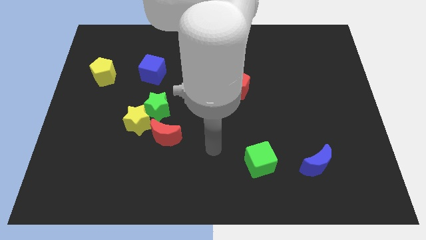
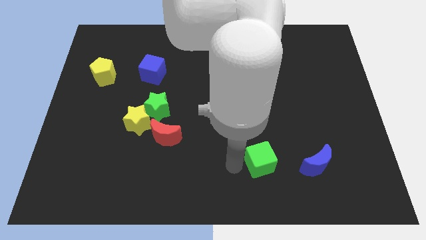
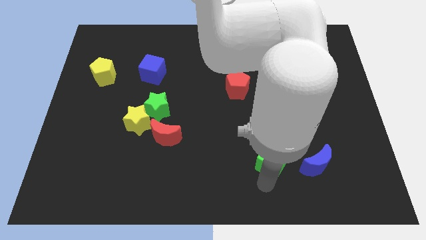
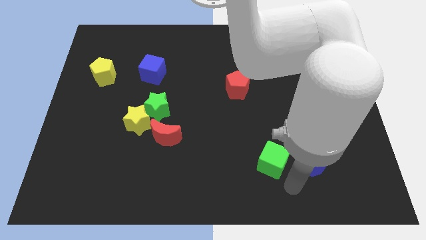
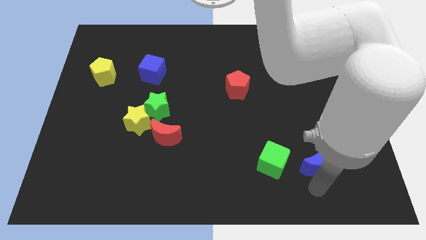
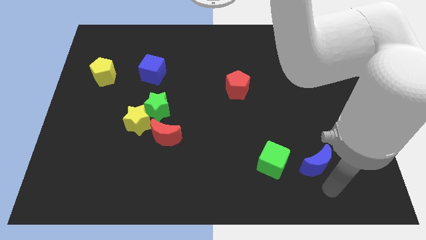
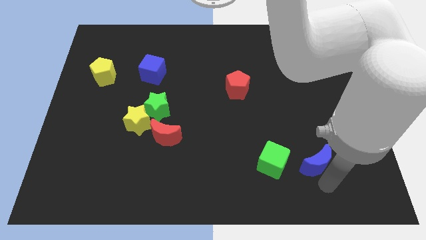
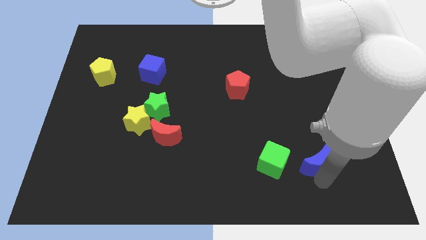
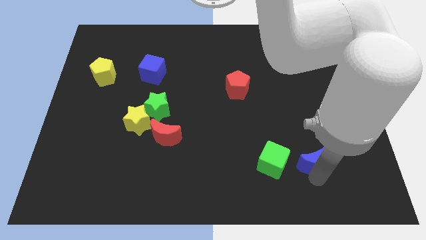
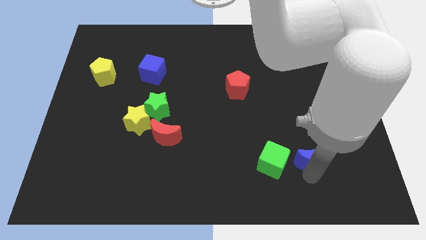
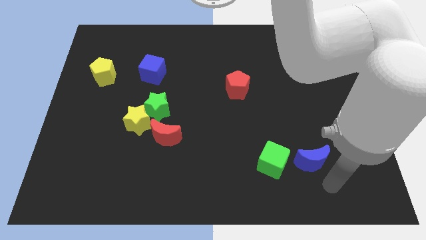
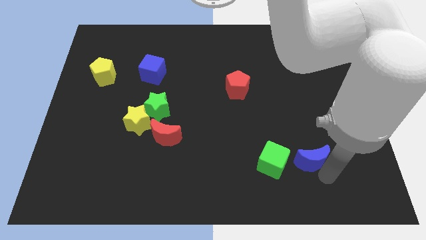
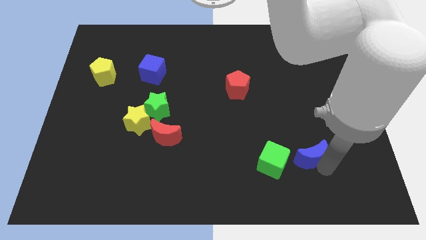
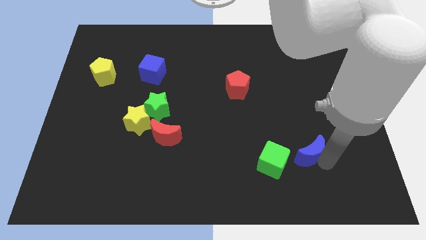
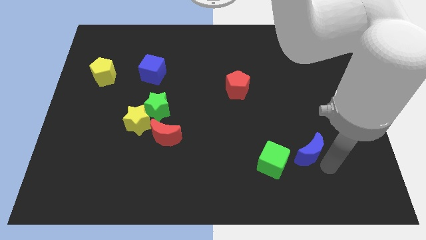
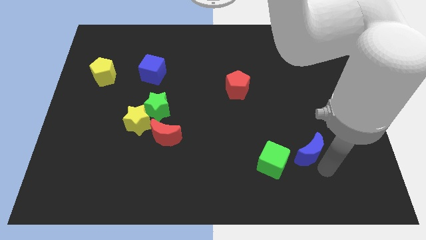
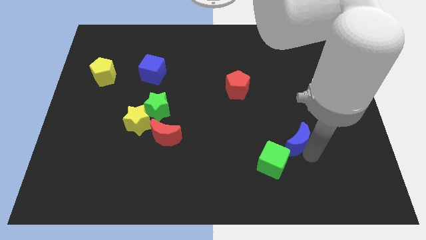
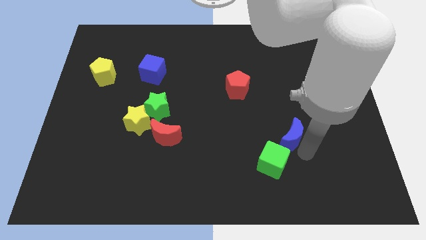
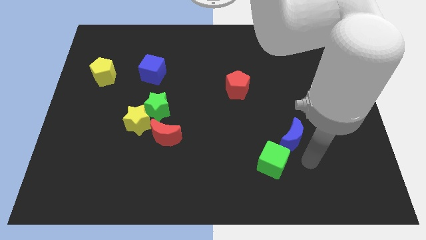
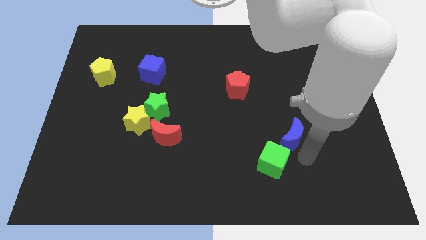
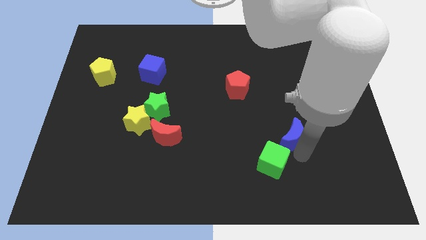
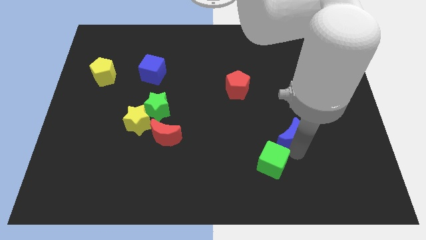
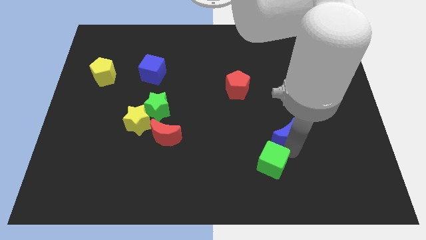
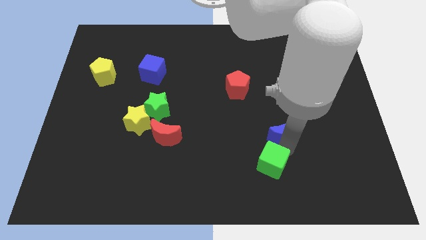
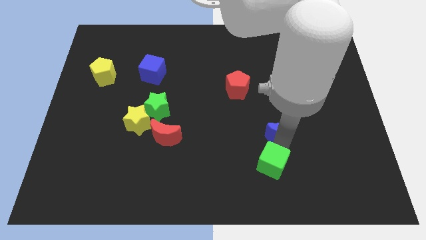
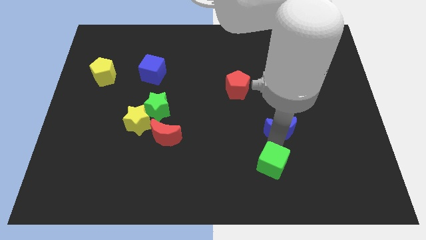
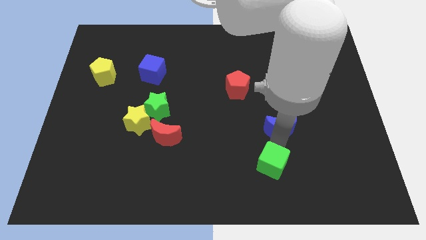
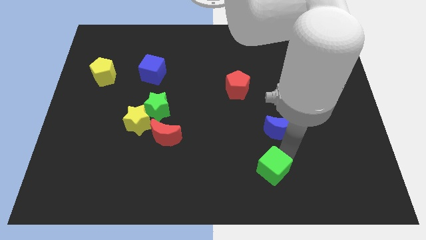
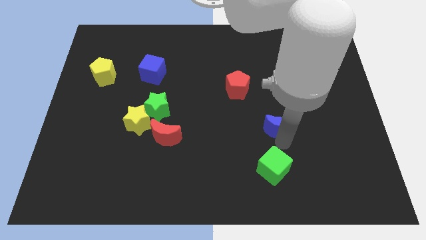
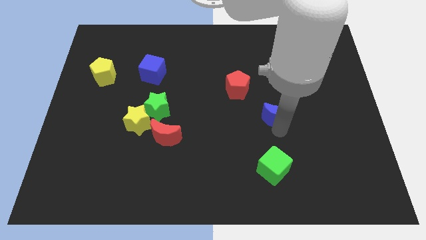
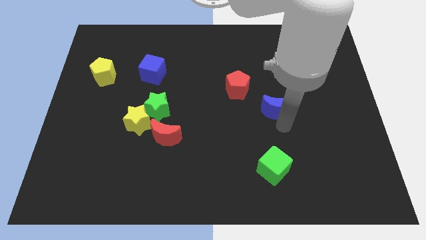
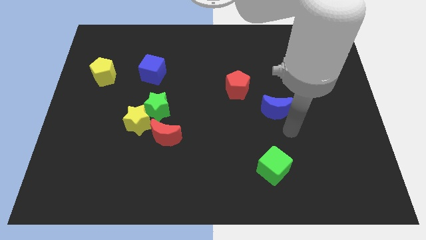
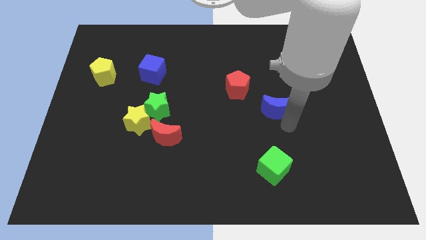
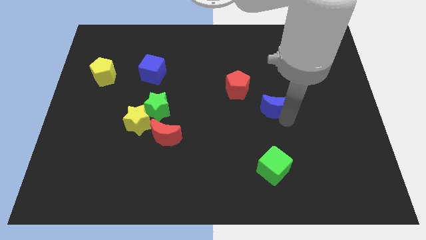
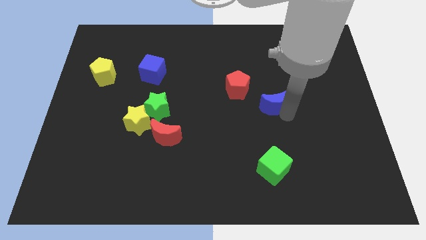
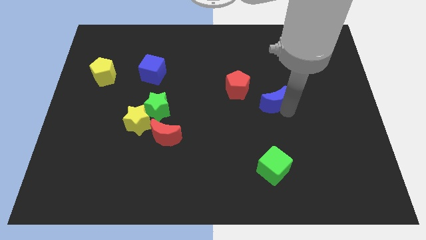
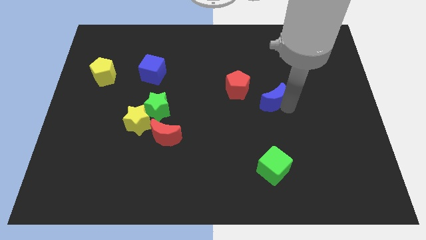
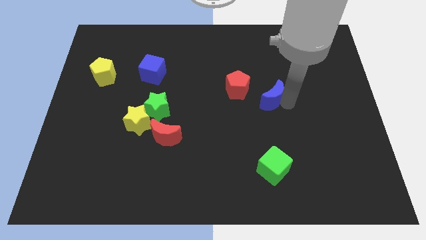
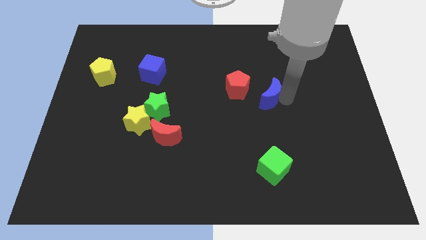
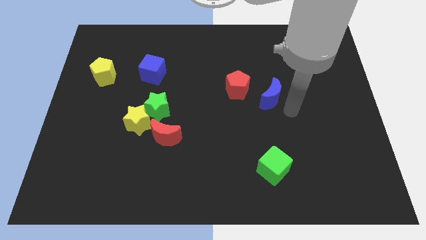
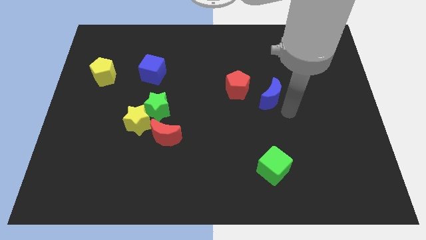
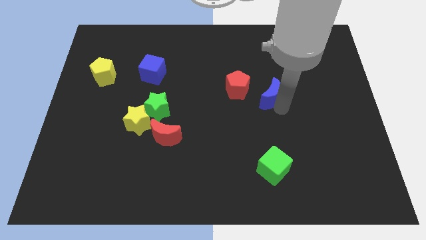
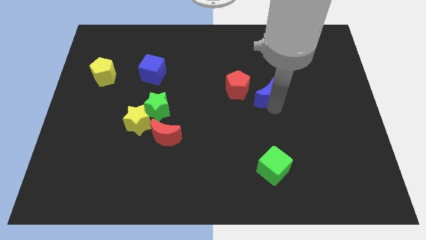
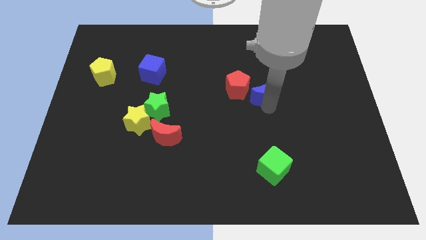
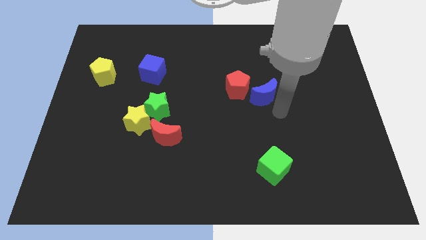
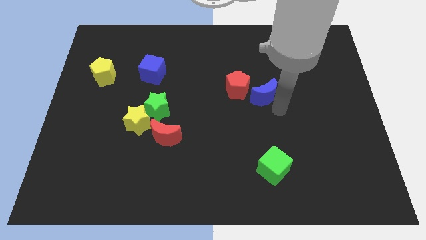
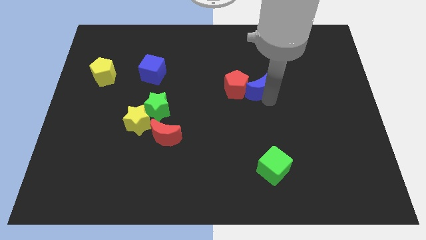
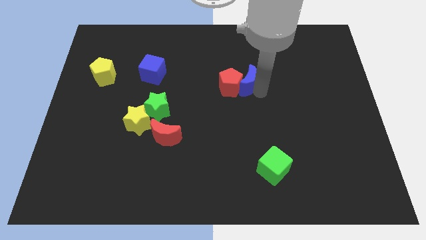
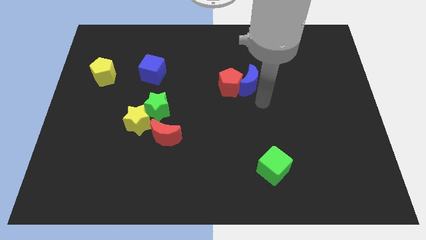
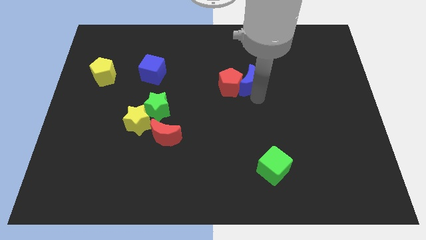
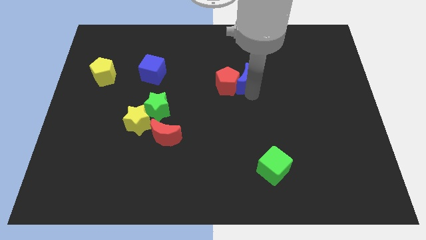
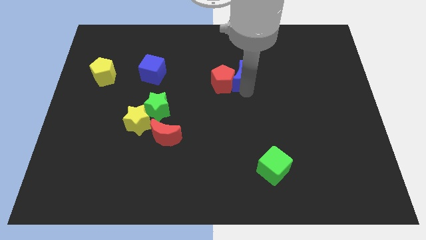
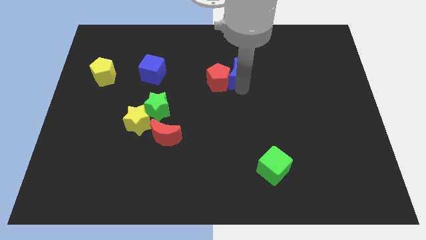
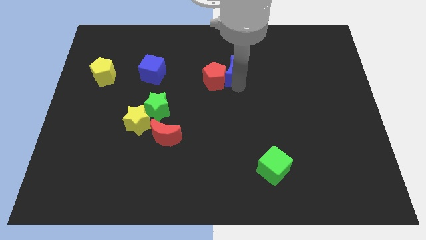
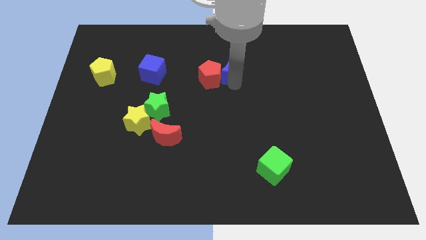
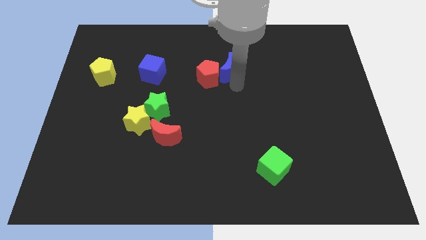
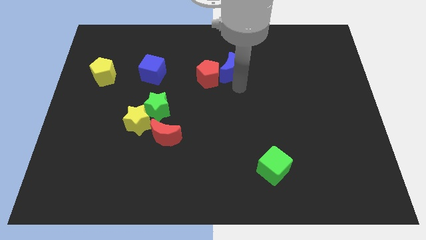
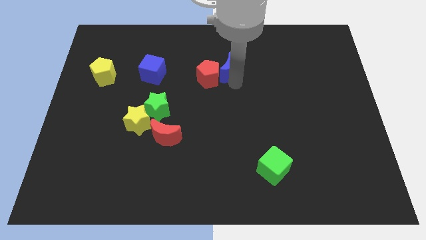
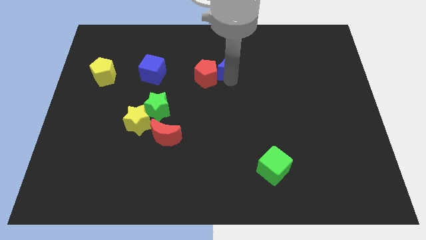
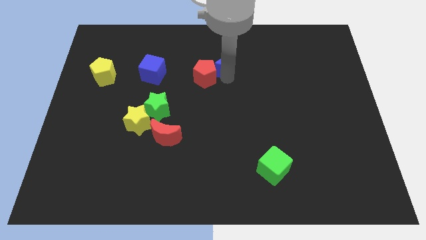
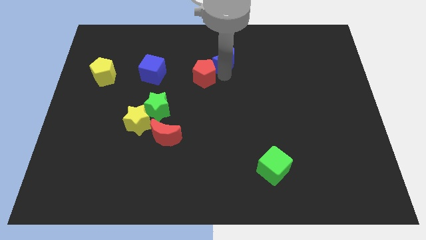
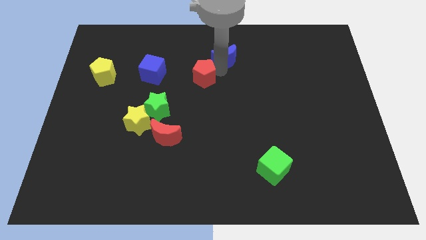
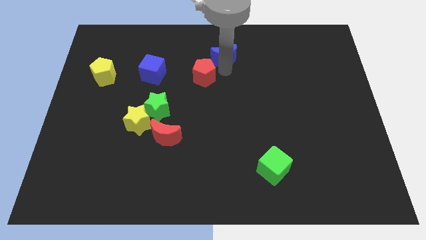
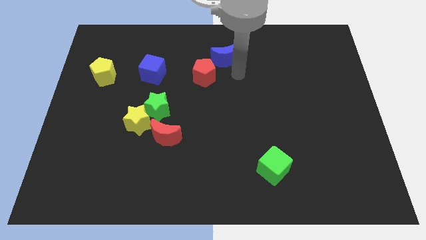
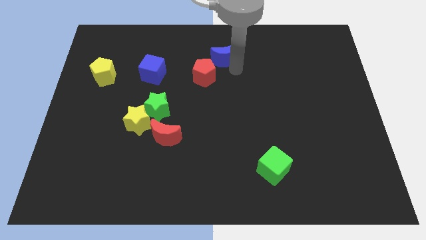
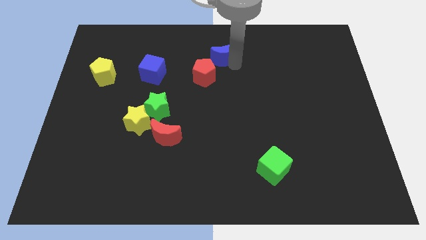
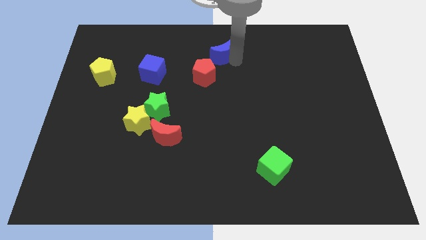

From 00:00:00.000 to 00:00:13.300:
slide the blue moon to the towards your base

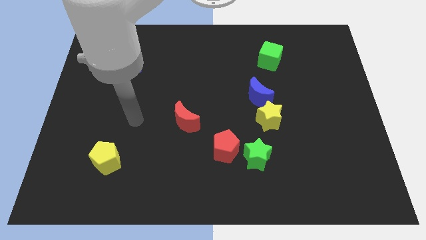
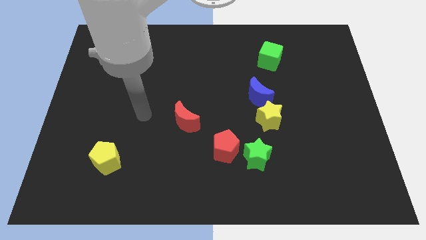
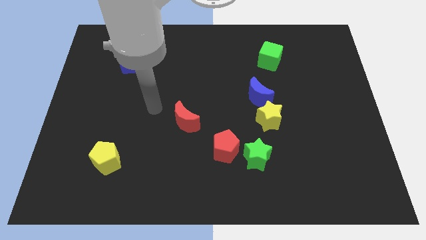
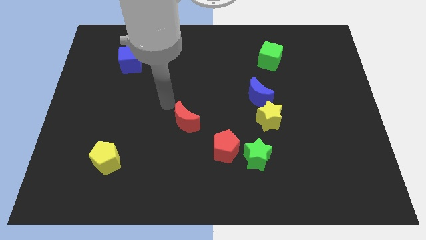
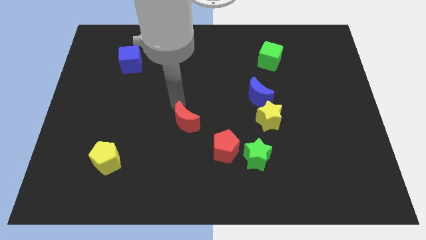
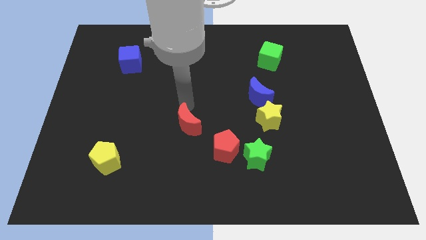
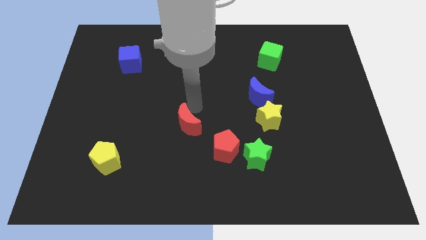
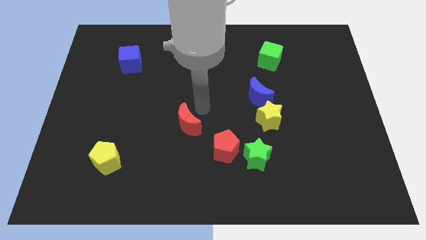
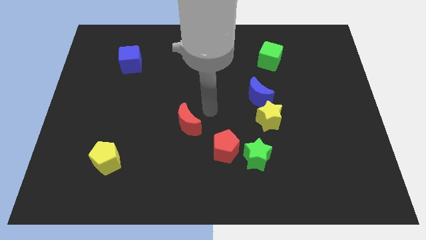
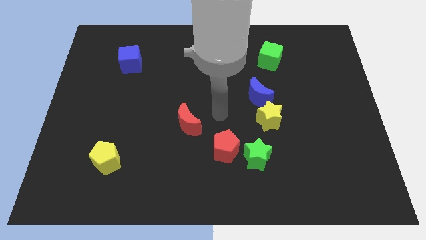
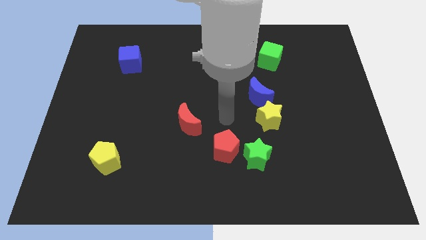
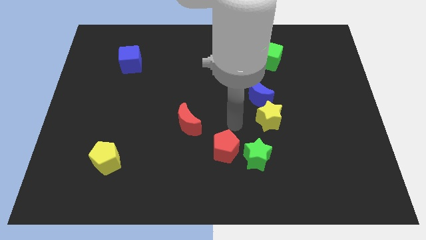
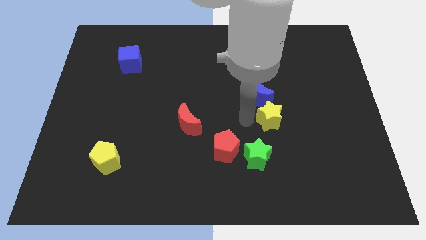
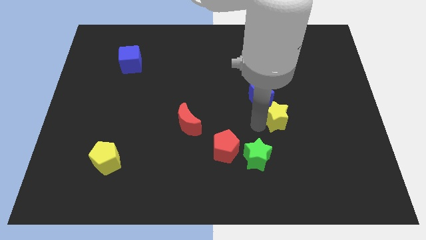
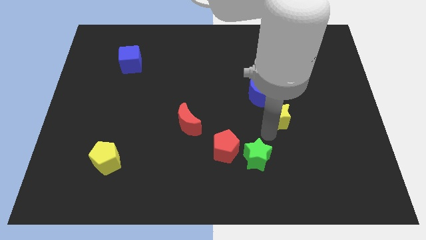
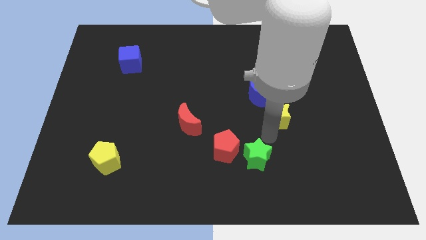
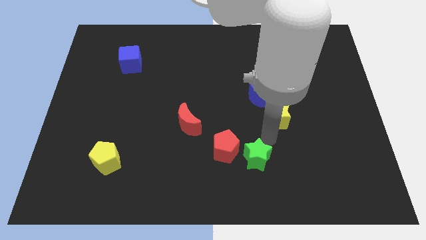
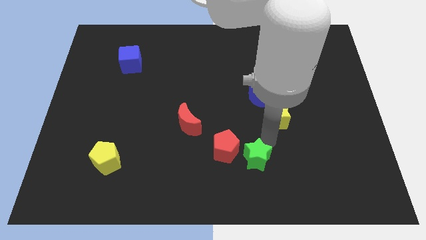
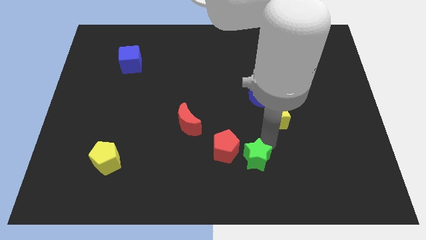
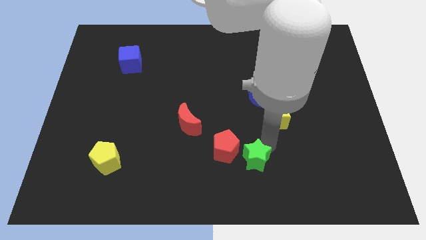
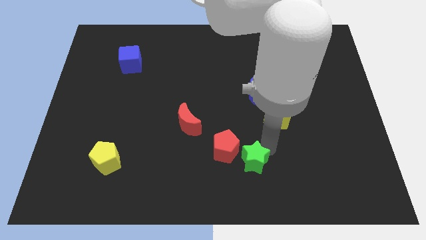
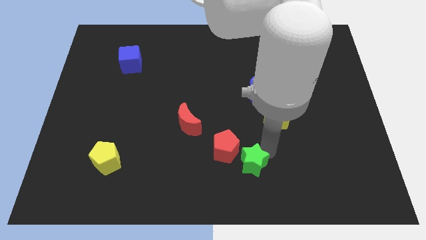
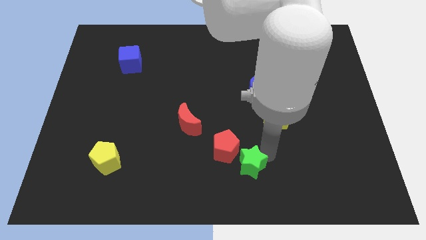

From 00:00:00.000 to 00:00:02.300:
put the green star to the bottom side
